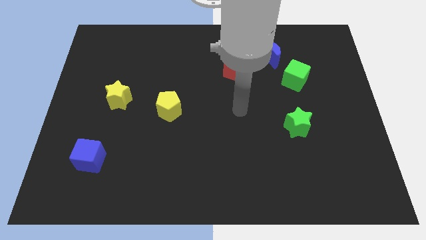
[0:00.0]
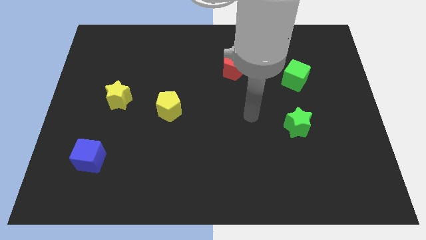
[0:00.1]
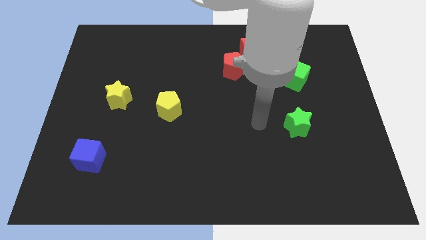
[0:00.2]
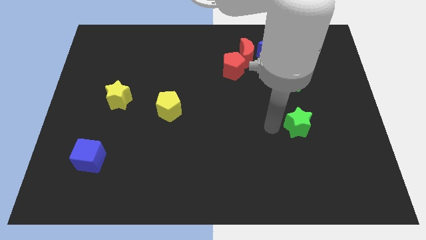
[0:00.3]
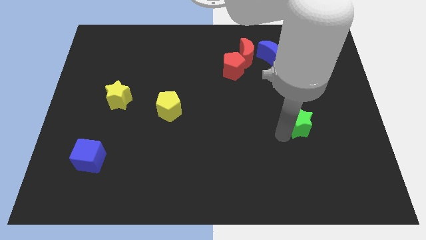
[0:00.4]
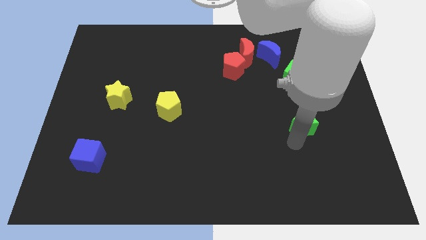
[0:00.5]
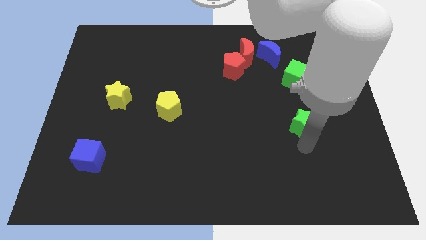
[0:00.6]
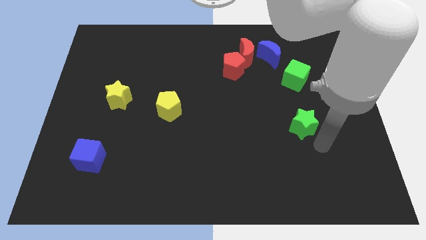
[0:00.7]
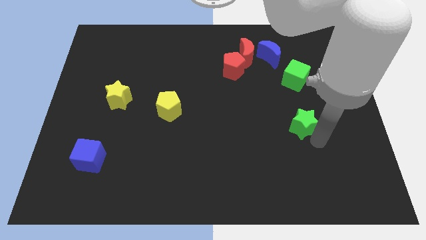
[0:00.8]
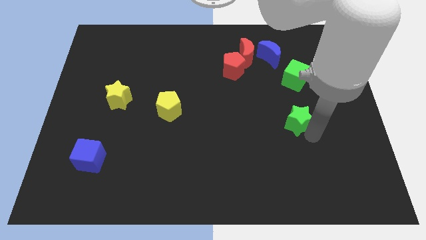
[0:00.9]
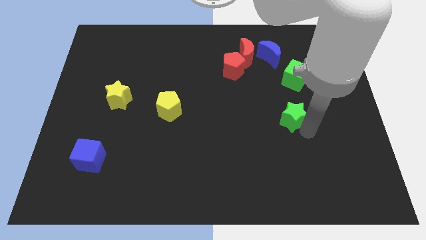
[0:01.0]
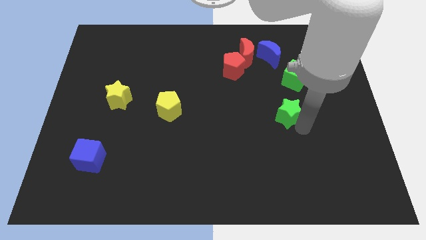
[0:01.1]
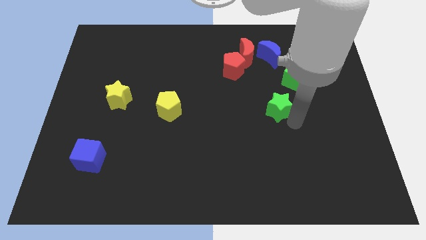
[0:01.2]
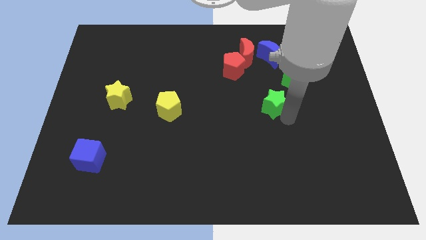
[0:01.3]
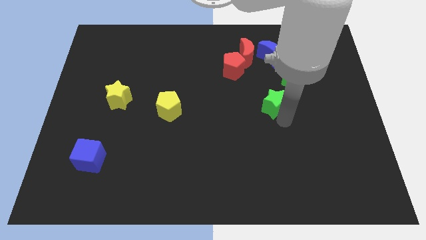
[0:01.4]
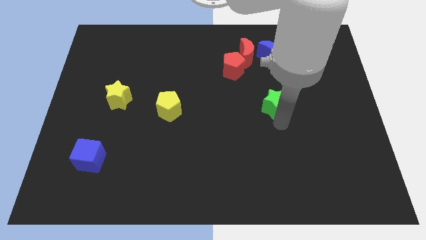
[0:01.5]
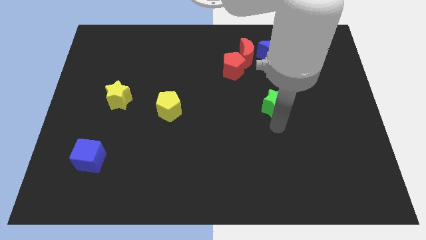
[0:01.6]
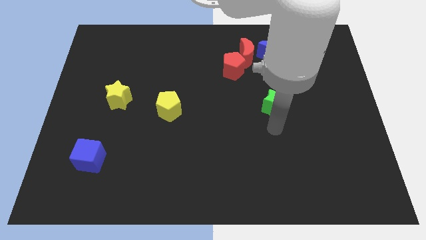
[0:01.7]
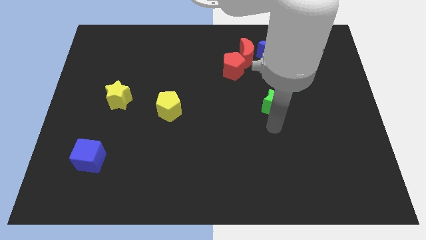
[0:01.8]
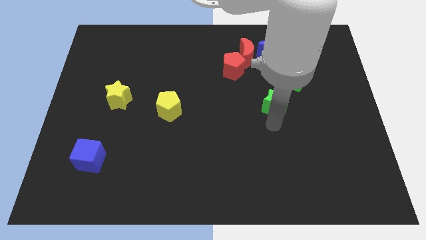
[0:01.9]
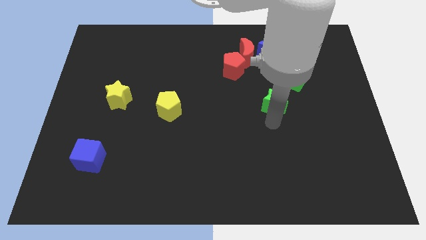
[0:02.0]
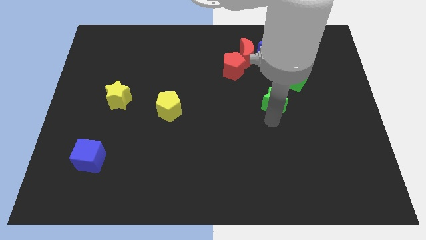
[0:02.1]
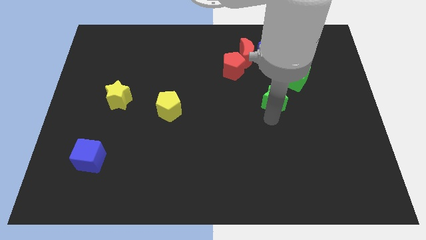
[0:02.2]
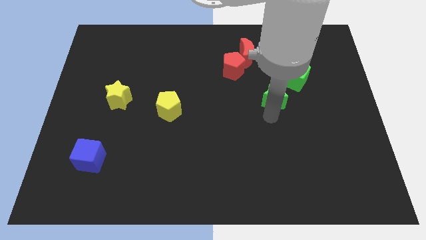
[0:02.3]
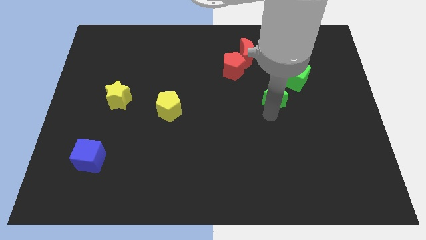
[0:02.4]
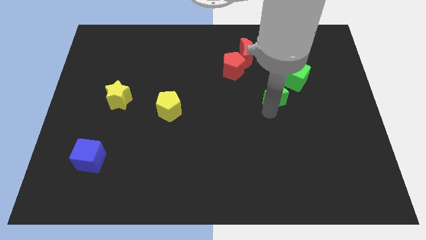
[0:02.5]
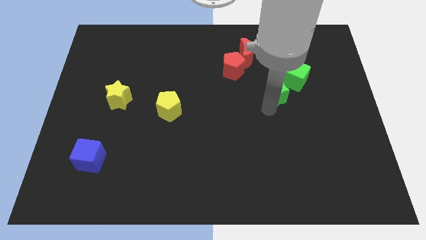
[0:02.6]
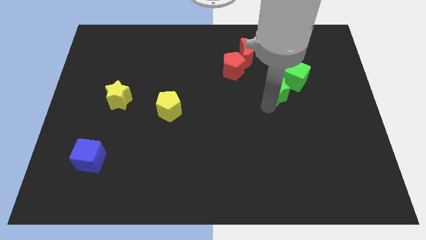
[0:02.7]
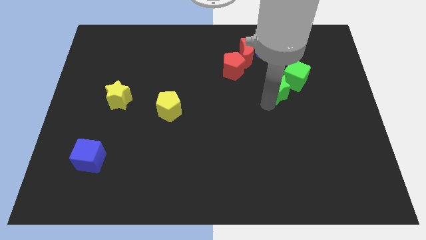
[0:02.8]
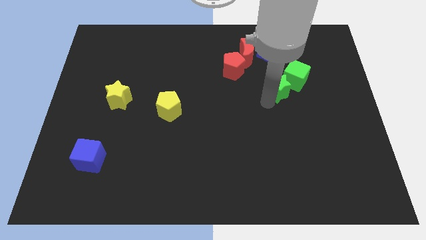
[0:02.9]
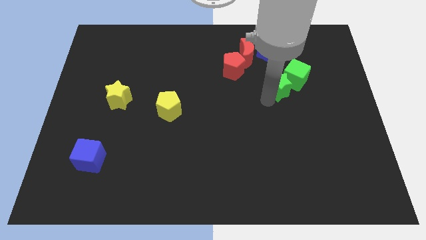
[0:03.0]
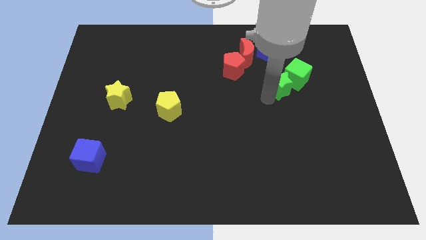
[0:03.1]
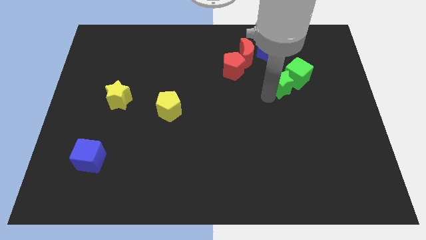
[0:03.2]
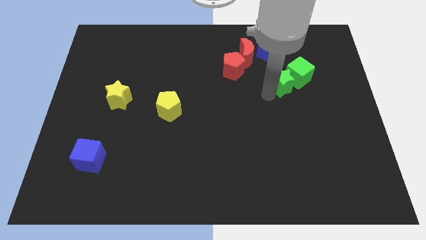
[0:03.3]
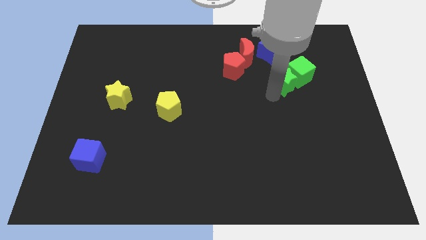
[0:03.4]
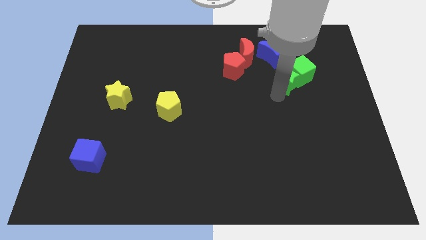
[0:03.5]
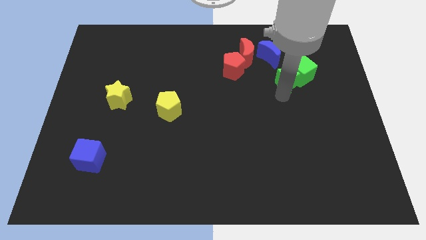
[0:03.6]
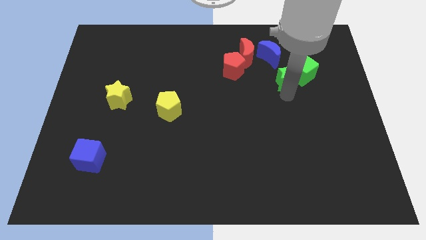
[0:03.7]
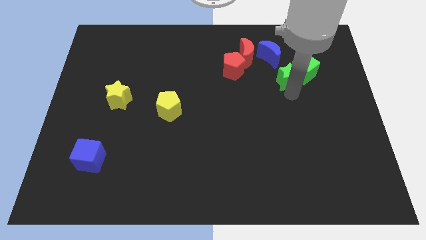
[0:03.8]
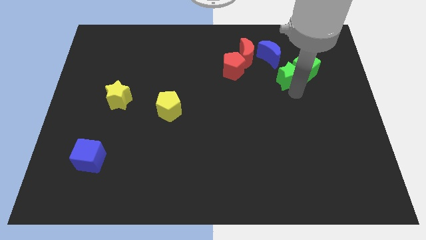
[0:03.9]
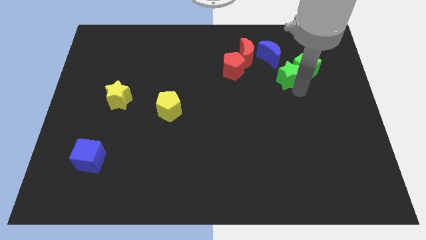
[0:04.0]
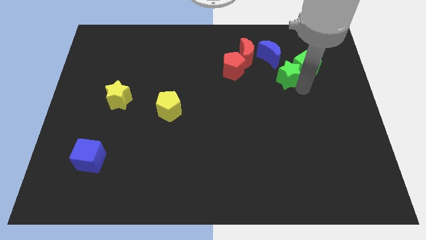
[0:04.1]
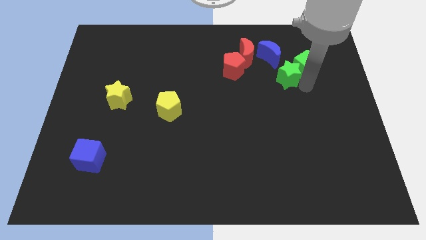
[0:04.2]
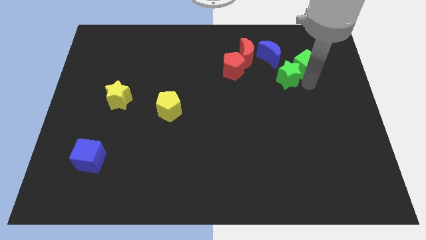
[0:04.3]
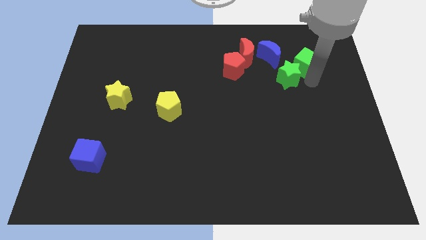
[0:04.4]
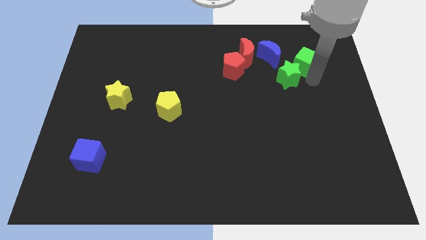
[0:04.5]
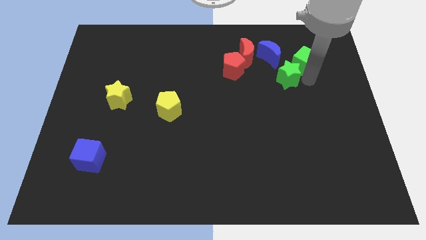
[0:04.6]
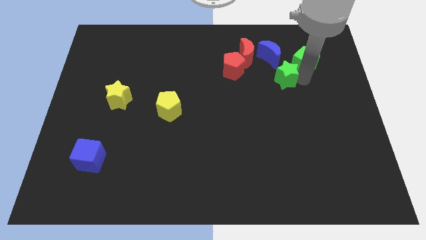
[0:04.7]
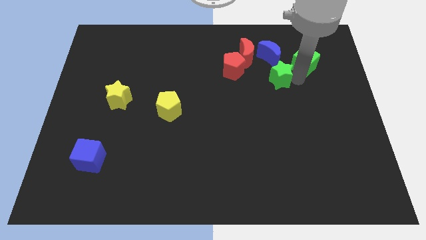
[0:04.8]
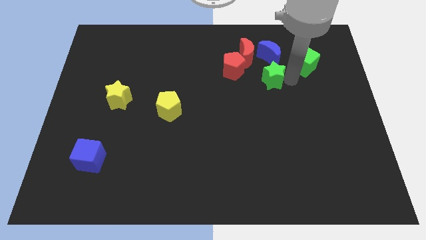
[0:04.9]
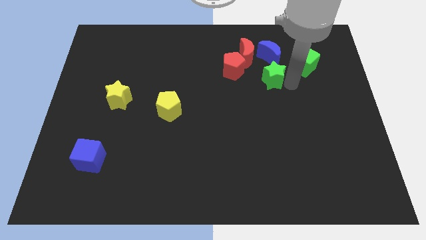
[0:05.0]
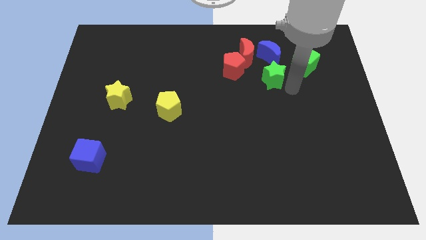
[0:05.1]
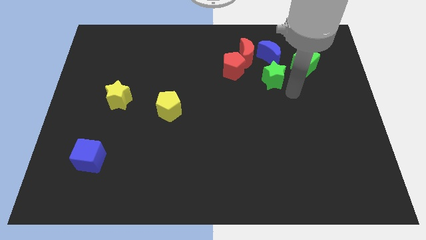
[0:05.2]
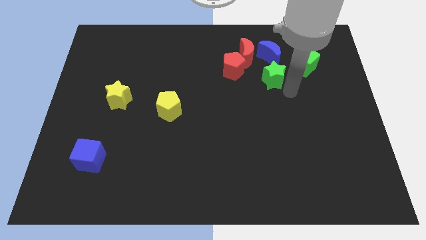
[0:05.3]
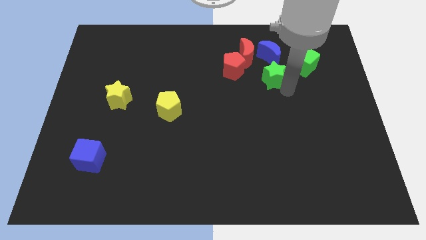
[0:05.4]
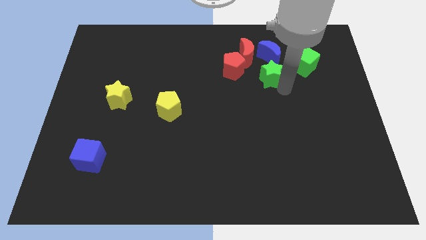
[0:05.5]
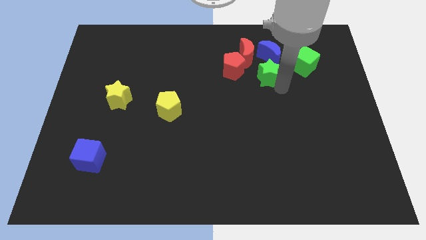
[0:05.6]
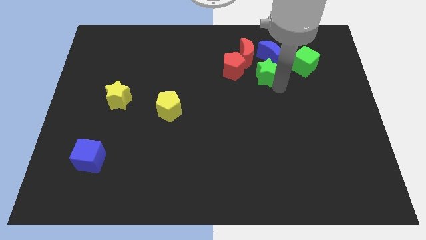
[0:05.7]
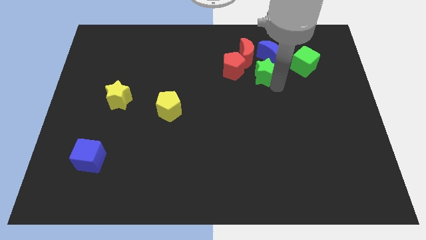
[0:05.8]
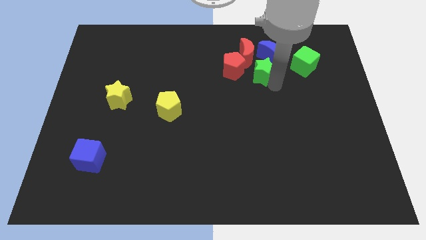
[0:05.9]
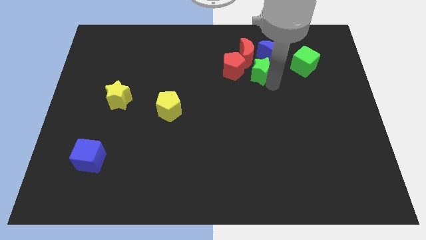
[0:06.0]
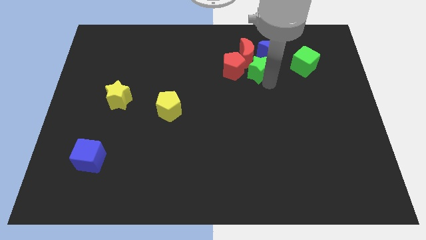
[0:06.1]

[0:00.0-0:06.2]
put the green star close to the red moon
